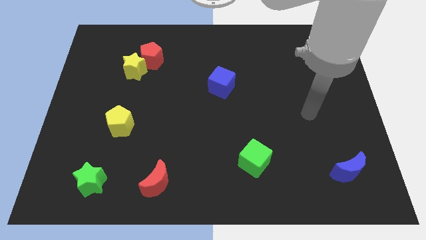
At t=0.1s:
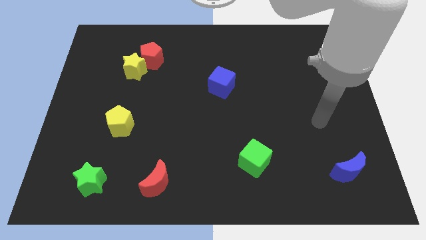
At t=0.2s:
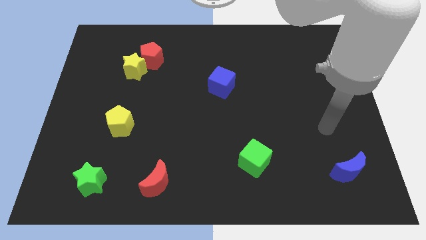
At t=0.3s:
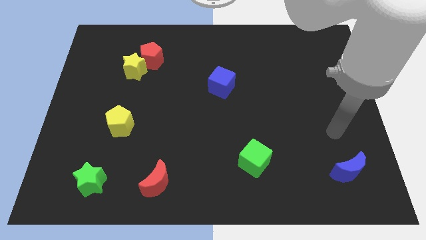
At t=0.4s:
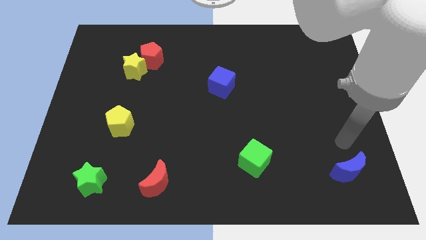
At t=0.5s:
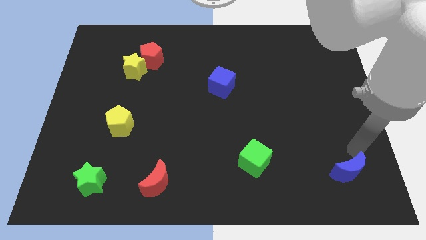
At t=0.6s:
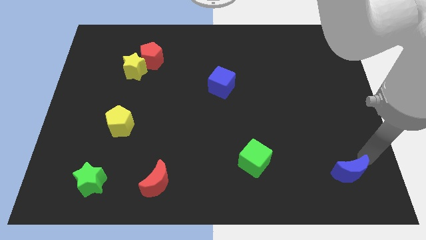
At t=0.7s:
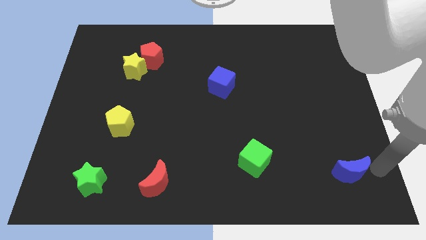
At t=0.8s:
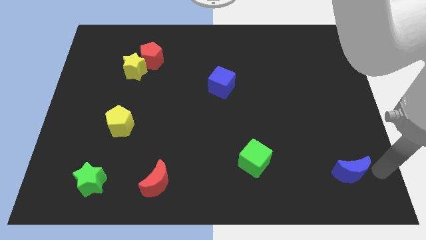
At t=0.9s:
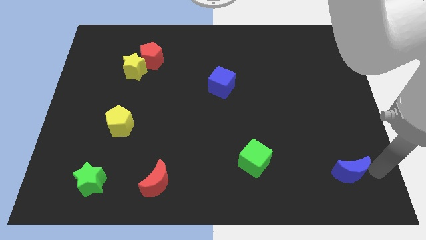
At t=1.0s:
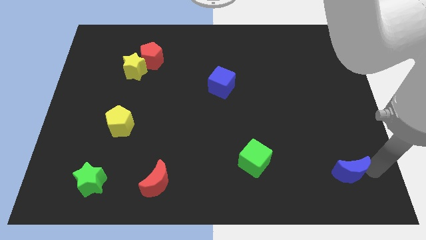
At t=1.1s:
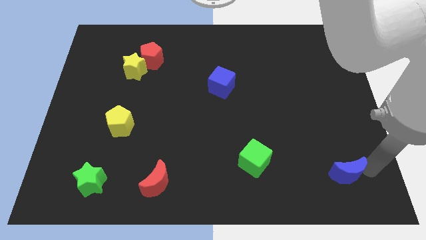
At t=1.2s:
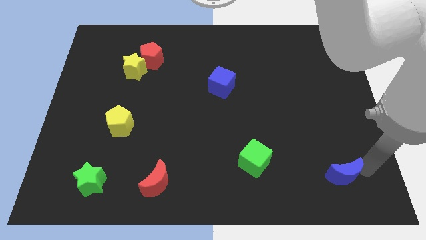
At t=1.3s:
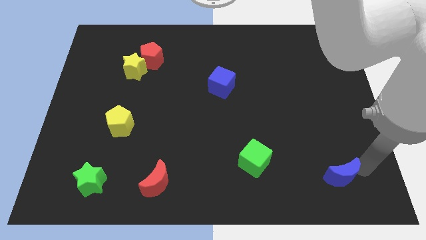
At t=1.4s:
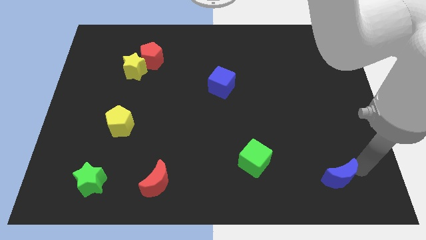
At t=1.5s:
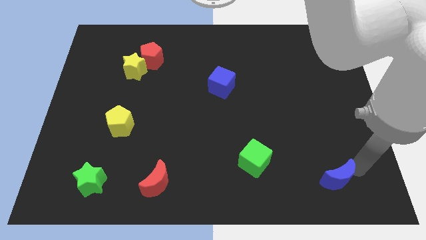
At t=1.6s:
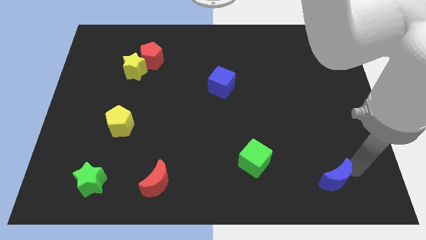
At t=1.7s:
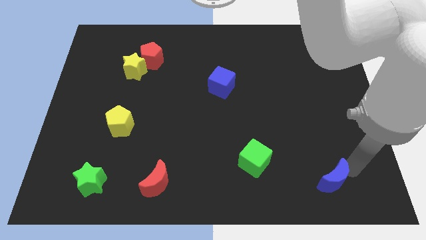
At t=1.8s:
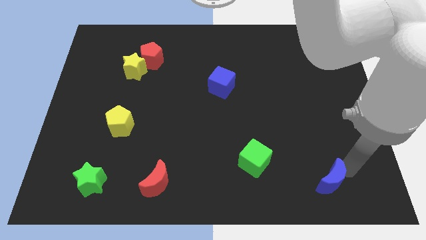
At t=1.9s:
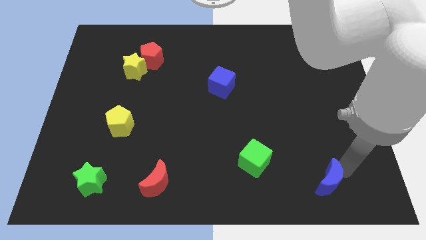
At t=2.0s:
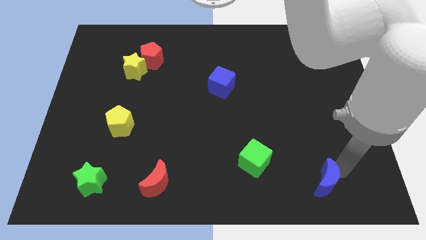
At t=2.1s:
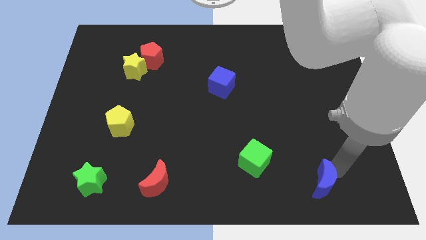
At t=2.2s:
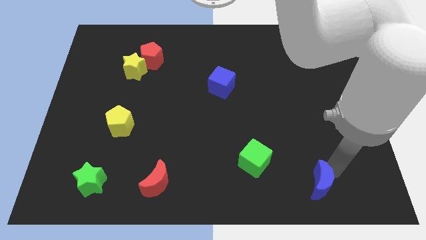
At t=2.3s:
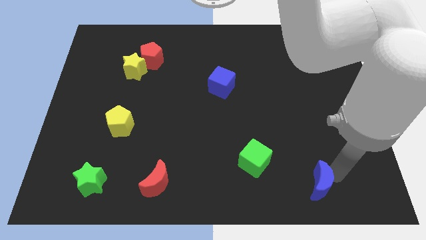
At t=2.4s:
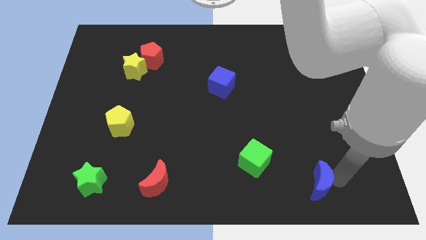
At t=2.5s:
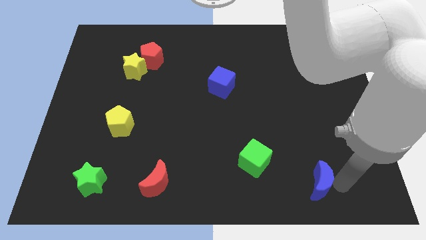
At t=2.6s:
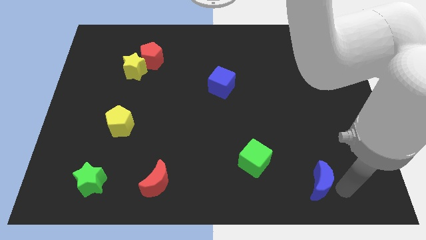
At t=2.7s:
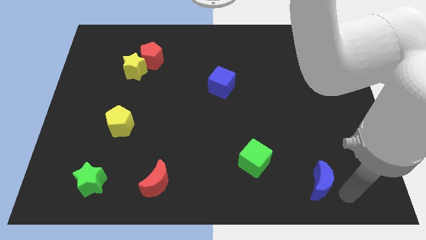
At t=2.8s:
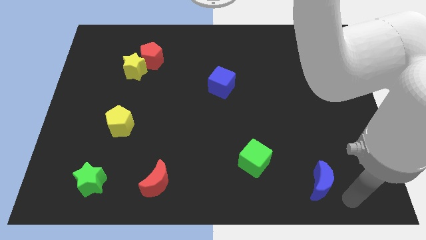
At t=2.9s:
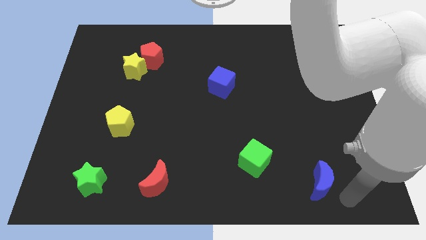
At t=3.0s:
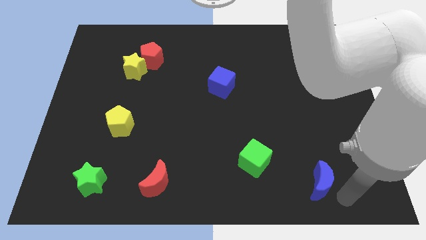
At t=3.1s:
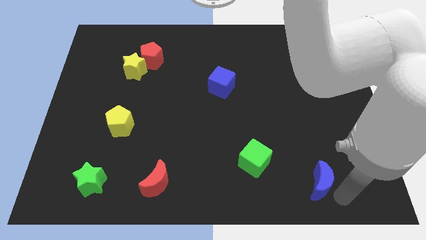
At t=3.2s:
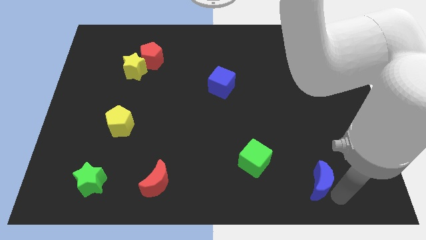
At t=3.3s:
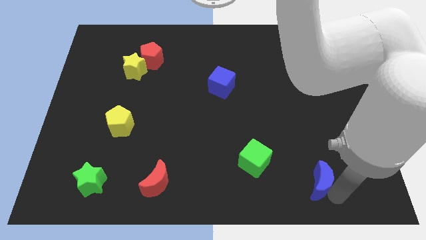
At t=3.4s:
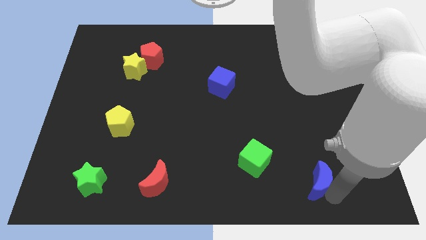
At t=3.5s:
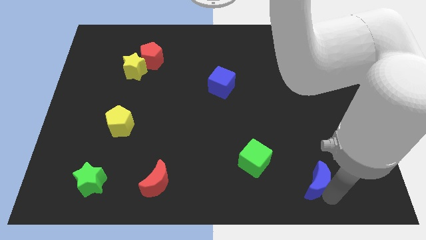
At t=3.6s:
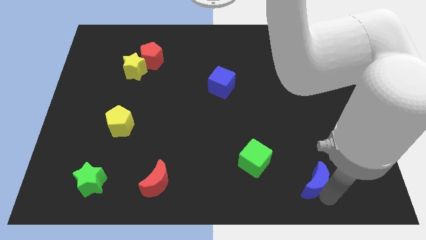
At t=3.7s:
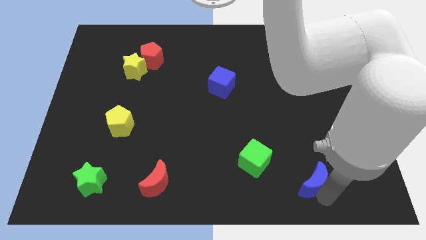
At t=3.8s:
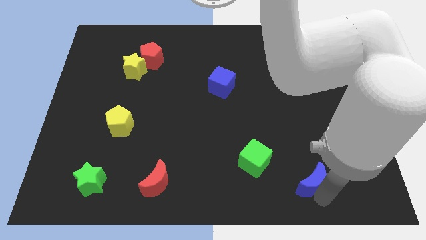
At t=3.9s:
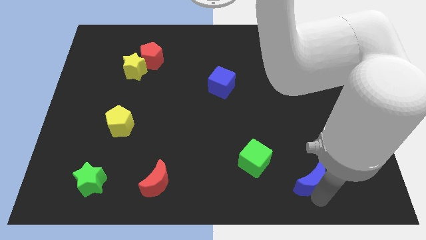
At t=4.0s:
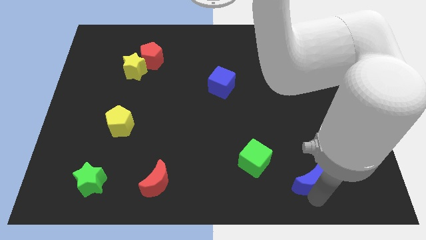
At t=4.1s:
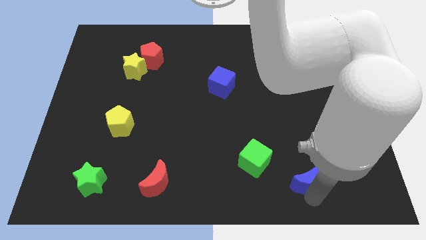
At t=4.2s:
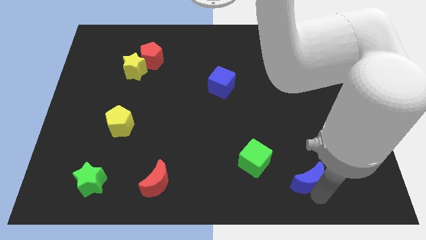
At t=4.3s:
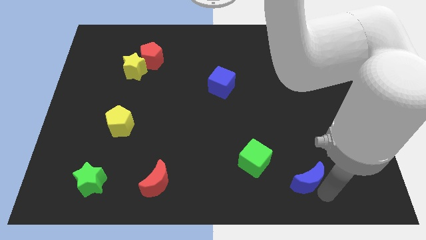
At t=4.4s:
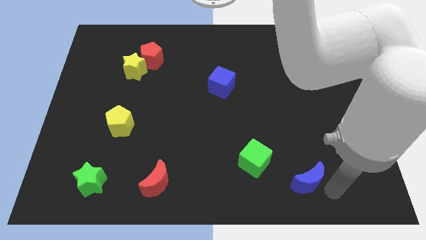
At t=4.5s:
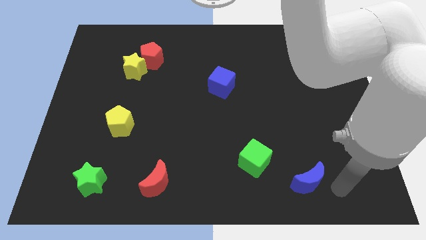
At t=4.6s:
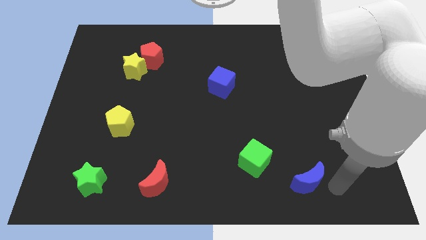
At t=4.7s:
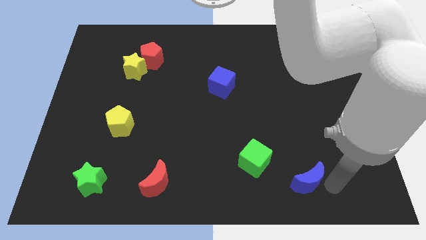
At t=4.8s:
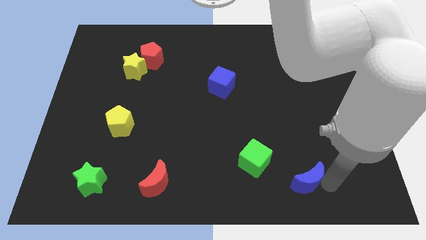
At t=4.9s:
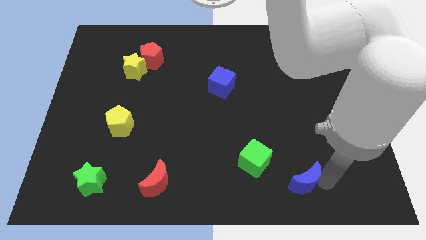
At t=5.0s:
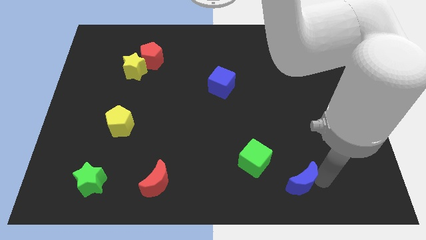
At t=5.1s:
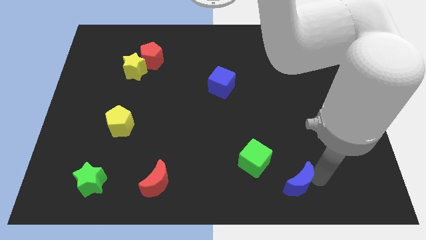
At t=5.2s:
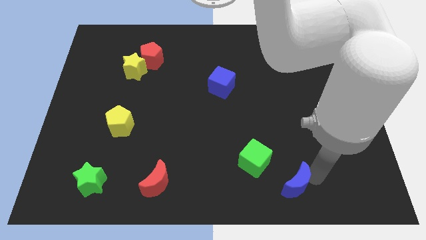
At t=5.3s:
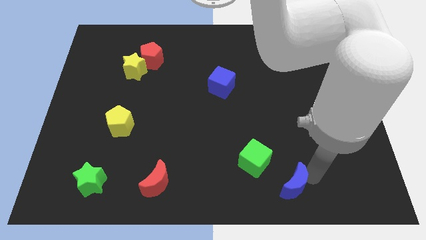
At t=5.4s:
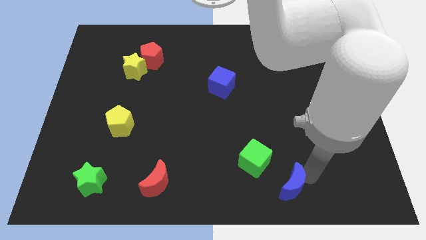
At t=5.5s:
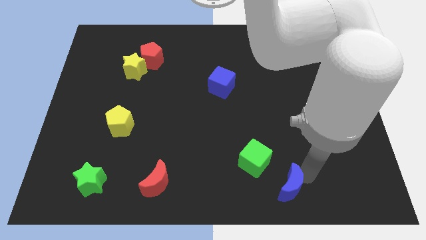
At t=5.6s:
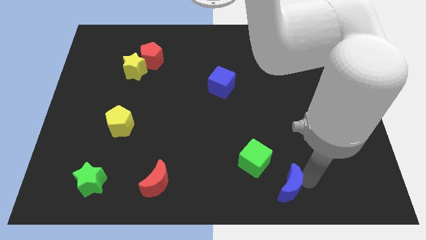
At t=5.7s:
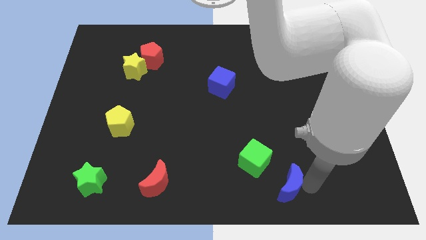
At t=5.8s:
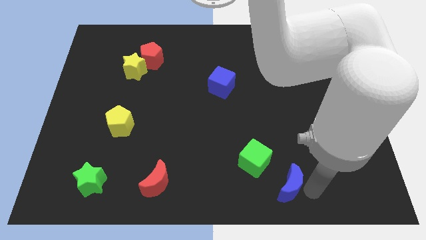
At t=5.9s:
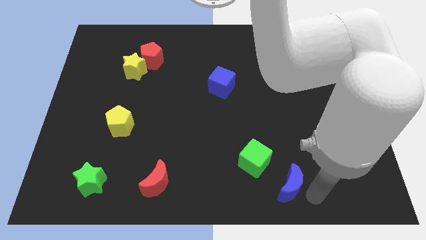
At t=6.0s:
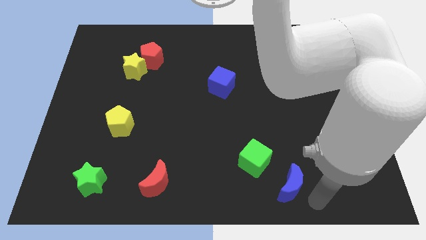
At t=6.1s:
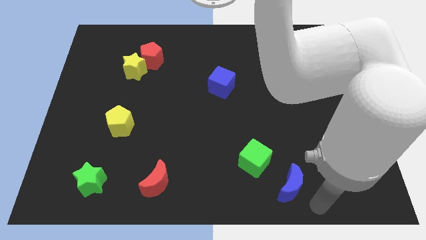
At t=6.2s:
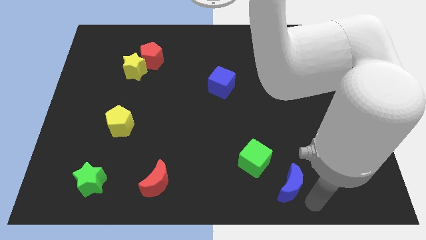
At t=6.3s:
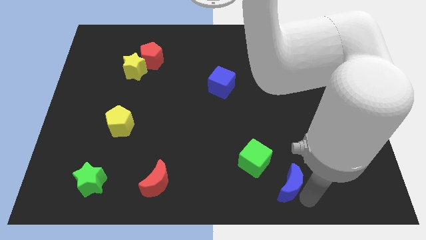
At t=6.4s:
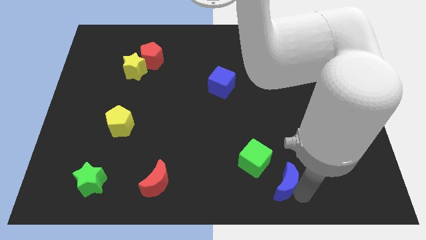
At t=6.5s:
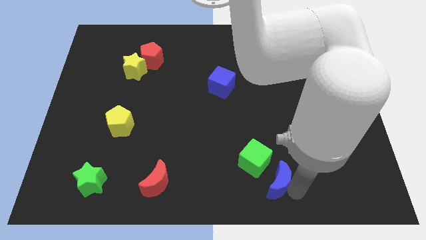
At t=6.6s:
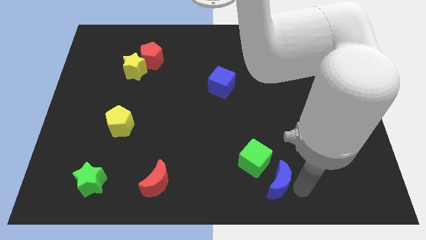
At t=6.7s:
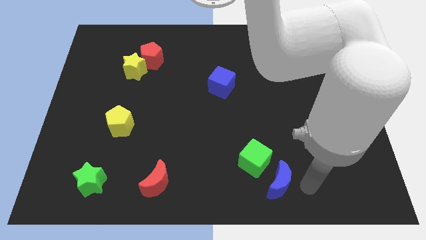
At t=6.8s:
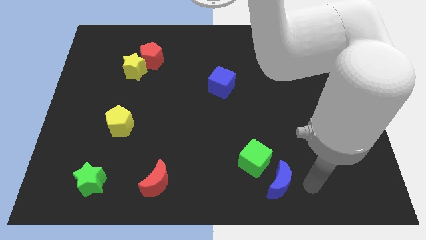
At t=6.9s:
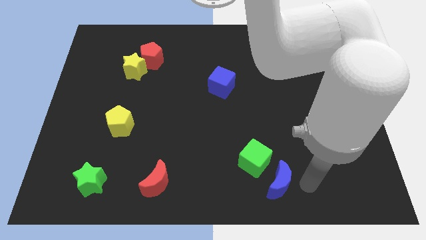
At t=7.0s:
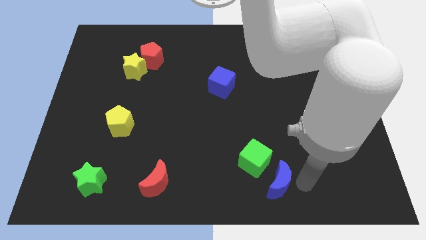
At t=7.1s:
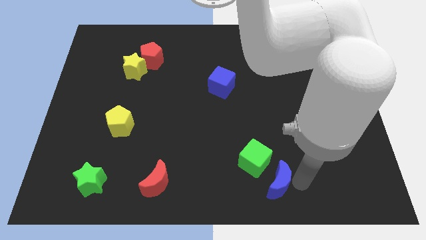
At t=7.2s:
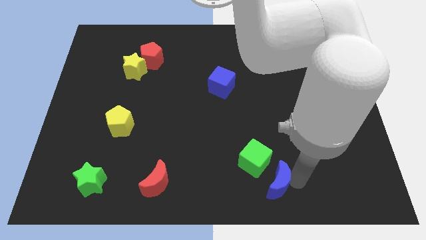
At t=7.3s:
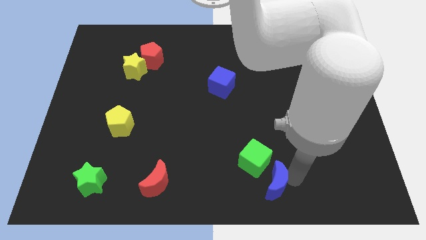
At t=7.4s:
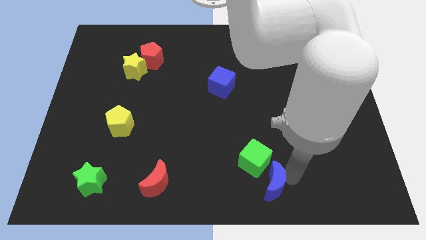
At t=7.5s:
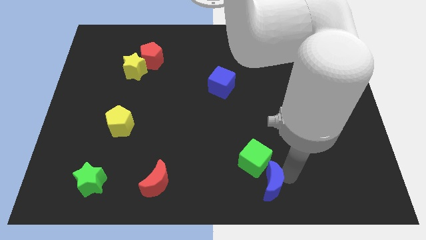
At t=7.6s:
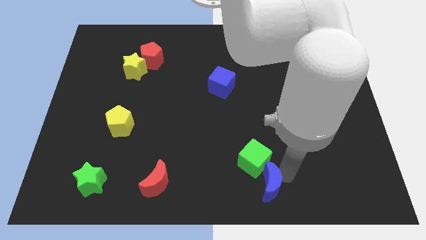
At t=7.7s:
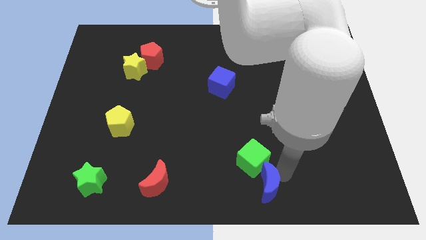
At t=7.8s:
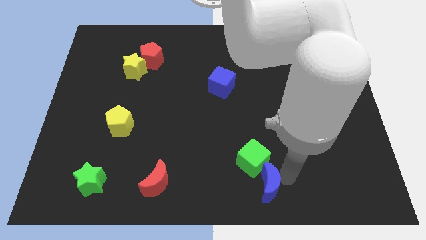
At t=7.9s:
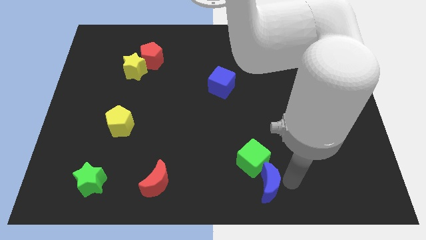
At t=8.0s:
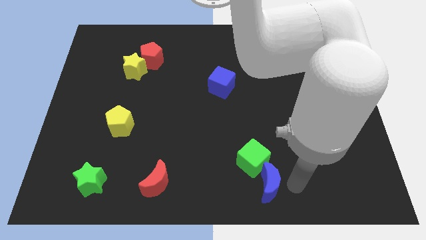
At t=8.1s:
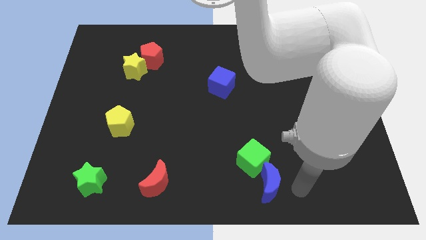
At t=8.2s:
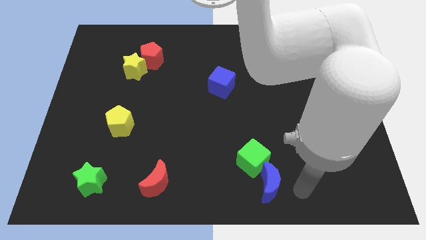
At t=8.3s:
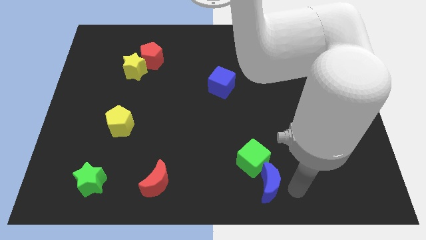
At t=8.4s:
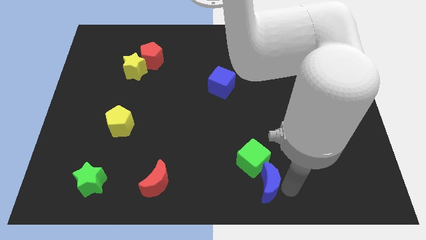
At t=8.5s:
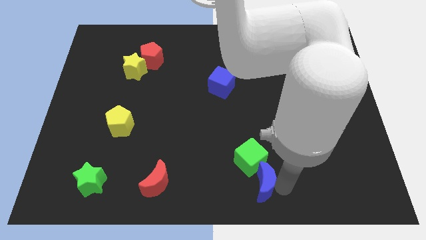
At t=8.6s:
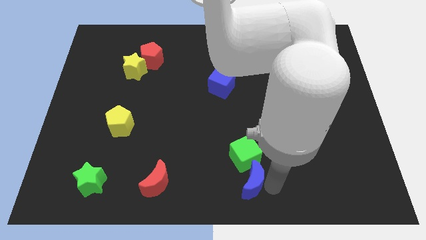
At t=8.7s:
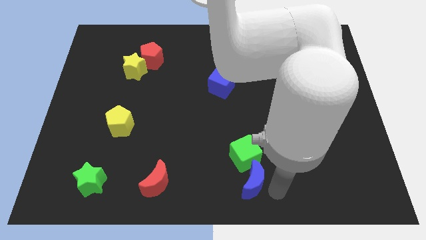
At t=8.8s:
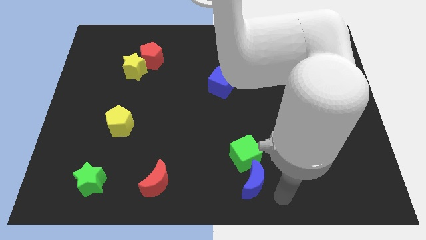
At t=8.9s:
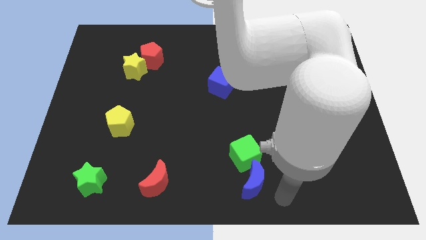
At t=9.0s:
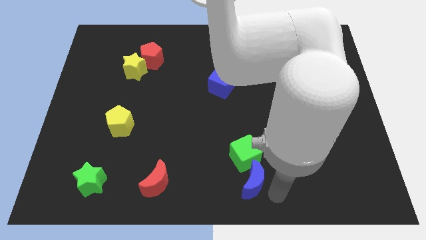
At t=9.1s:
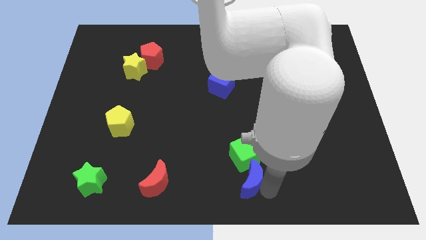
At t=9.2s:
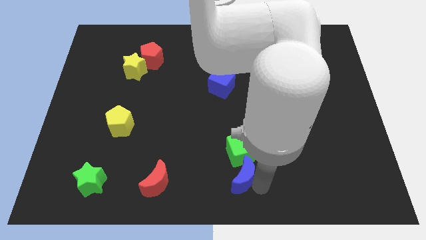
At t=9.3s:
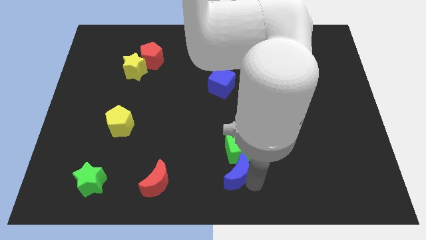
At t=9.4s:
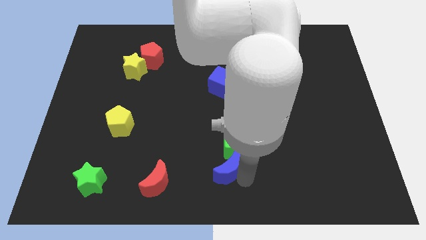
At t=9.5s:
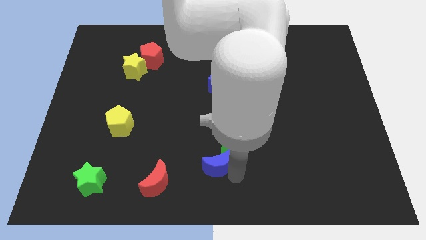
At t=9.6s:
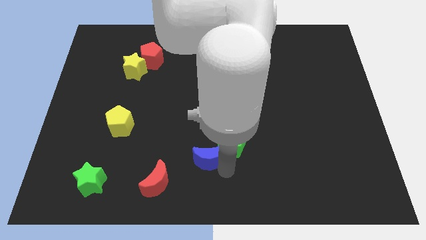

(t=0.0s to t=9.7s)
slide the blue moon left of the green cube
